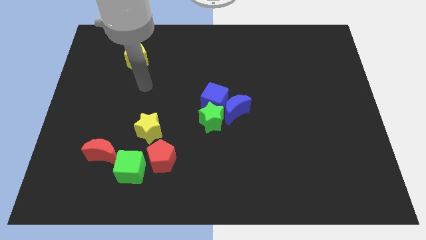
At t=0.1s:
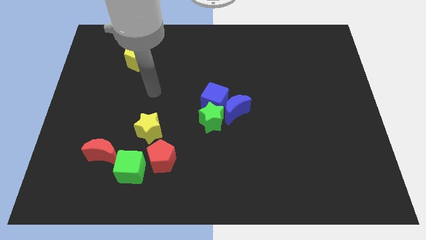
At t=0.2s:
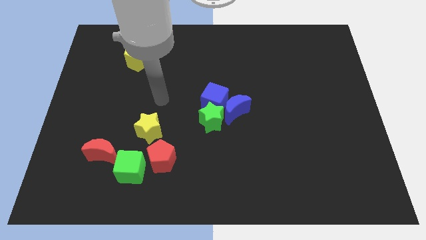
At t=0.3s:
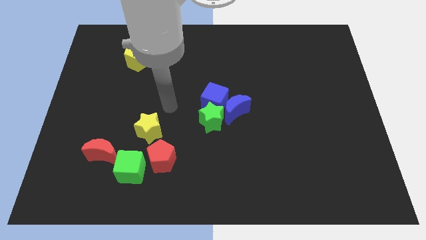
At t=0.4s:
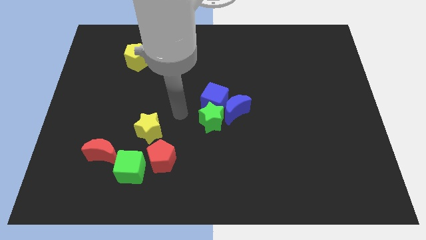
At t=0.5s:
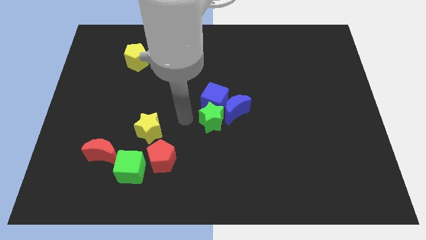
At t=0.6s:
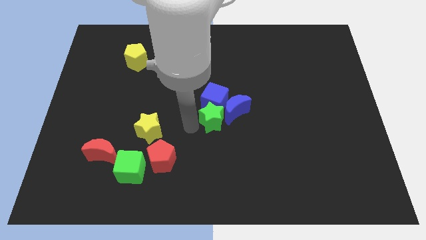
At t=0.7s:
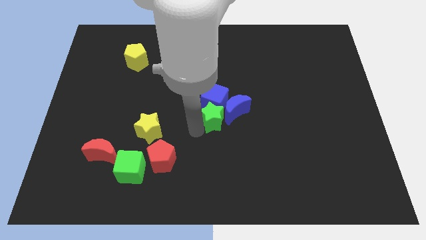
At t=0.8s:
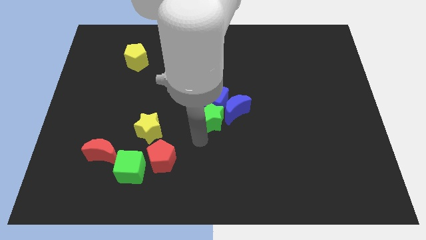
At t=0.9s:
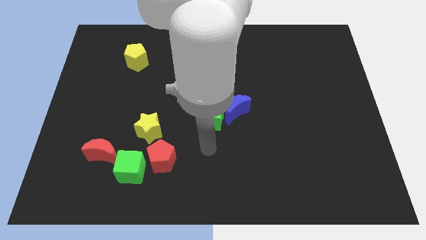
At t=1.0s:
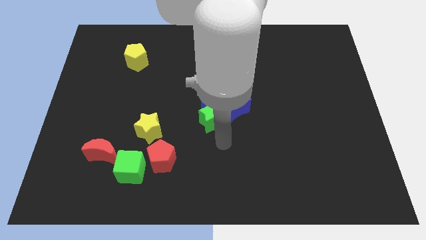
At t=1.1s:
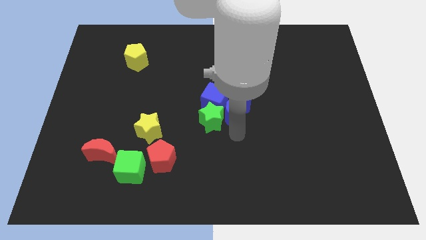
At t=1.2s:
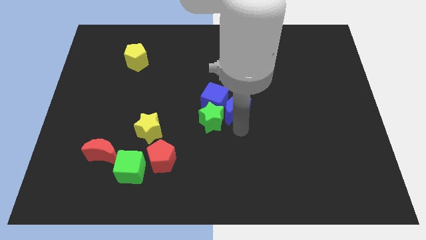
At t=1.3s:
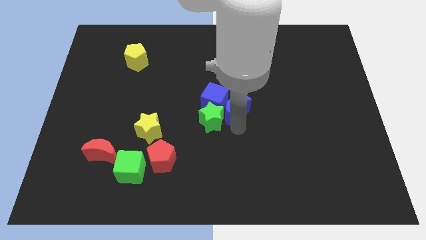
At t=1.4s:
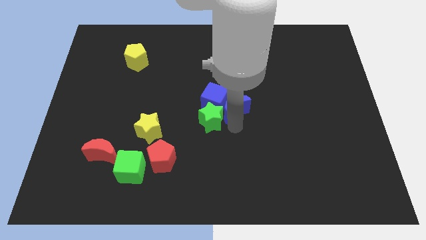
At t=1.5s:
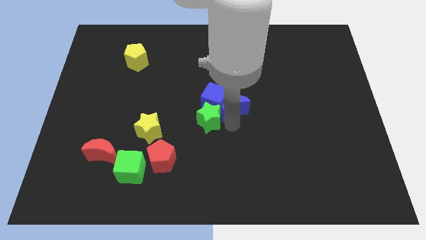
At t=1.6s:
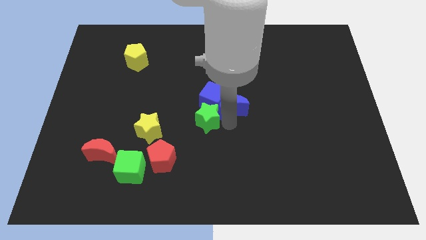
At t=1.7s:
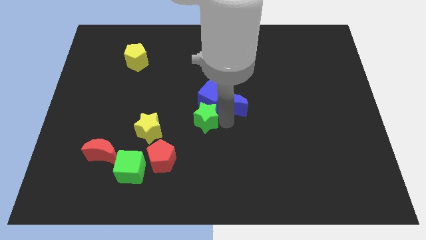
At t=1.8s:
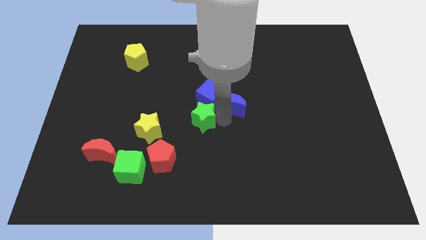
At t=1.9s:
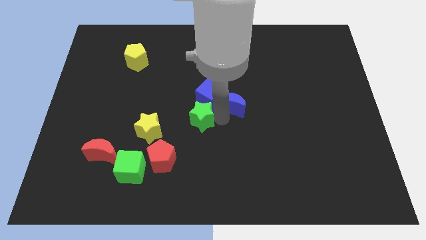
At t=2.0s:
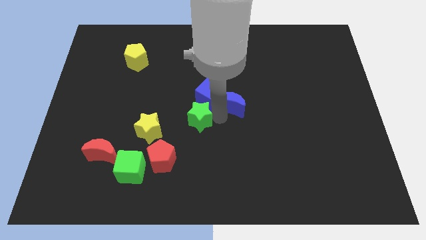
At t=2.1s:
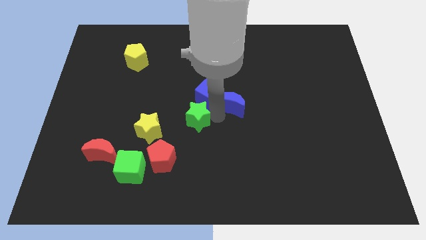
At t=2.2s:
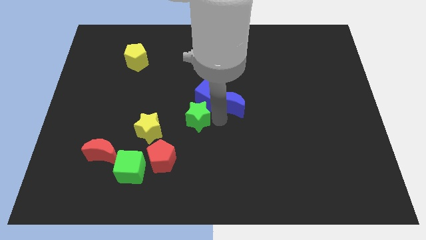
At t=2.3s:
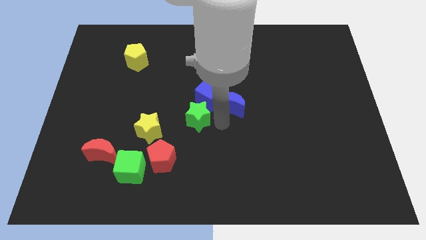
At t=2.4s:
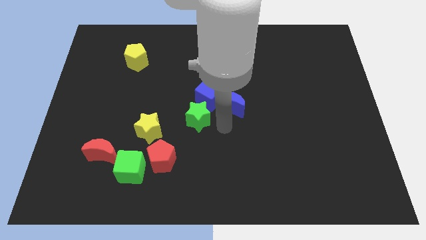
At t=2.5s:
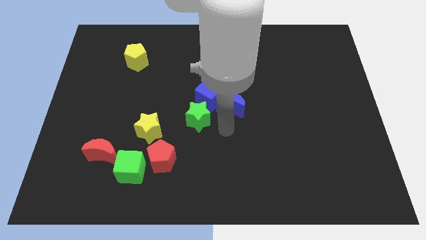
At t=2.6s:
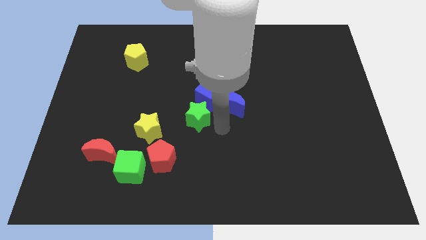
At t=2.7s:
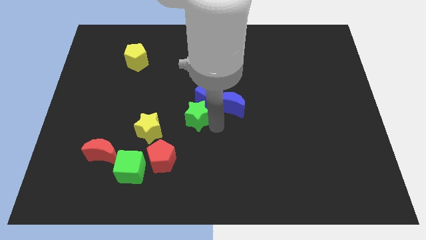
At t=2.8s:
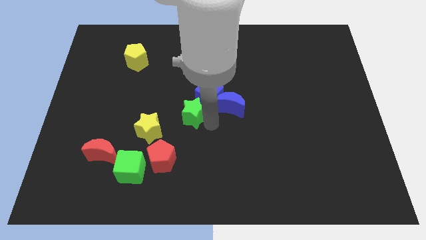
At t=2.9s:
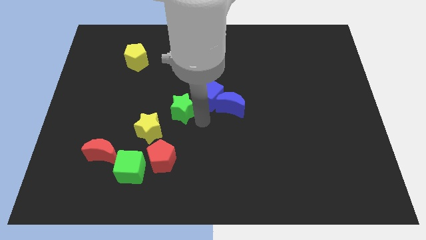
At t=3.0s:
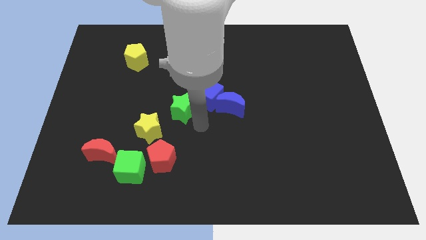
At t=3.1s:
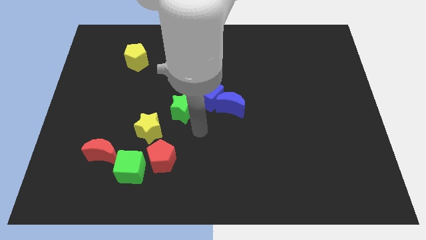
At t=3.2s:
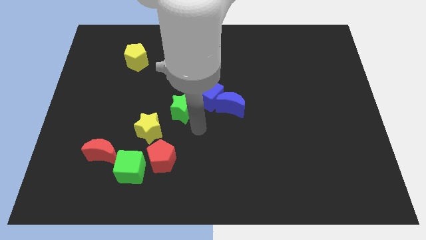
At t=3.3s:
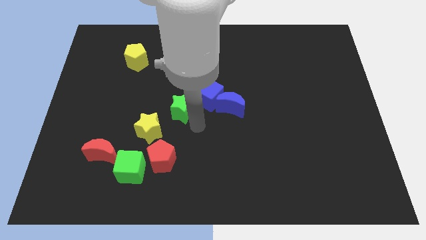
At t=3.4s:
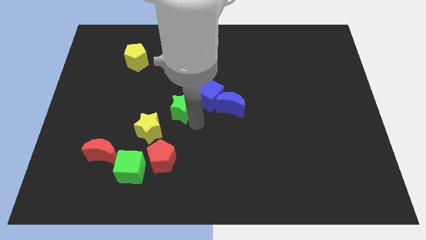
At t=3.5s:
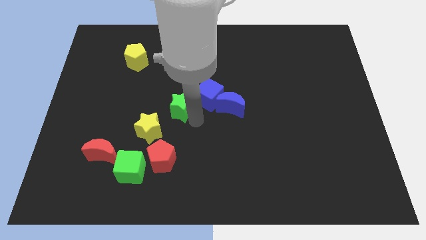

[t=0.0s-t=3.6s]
slide the green star up and to the left slightly

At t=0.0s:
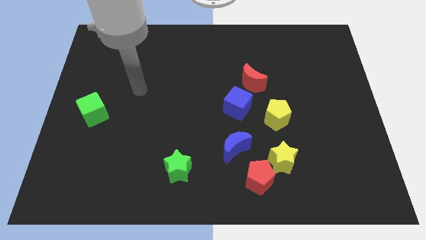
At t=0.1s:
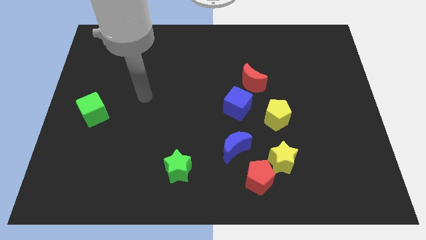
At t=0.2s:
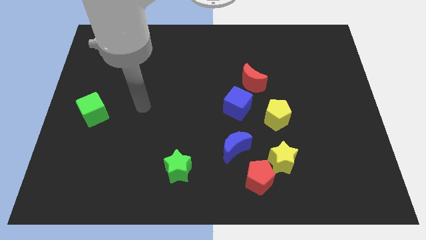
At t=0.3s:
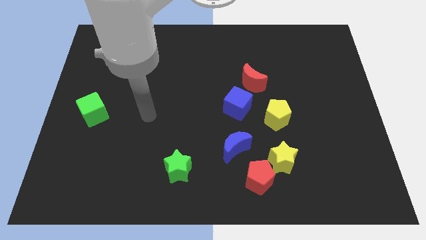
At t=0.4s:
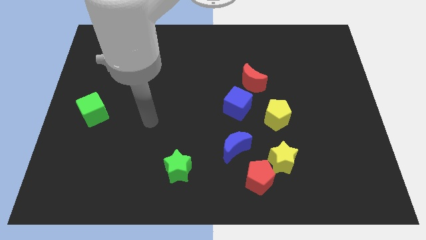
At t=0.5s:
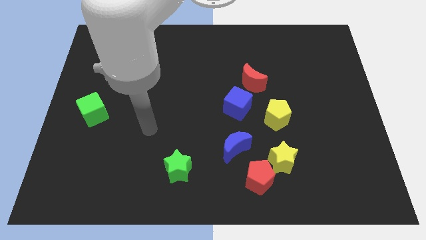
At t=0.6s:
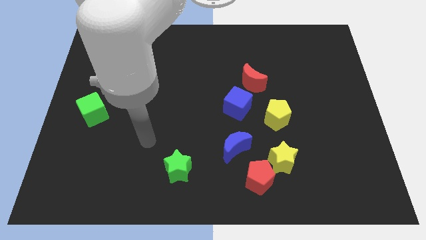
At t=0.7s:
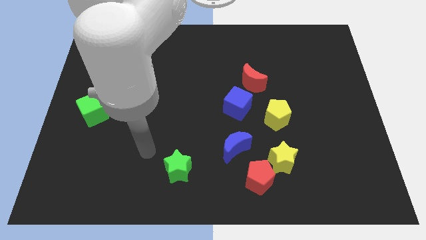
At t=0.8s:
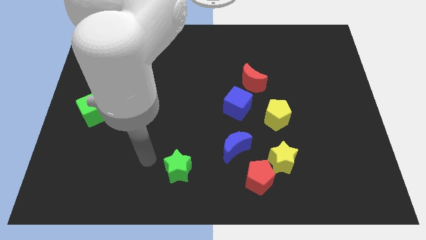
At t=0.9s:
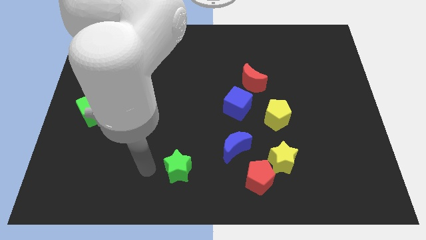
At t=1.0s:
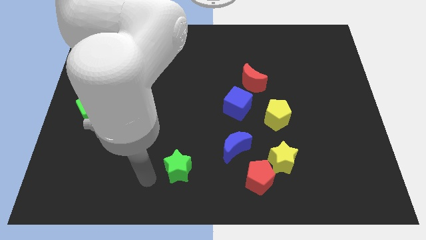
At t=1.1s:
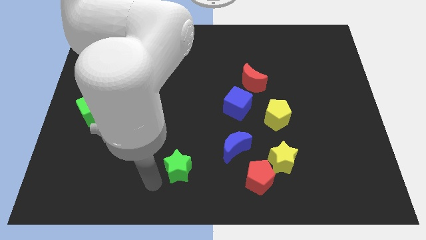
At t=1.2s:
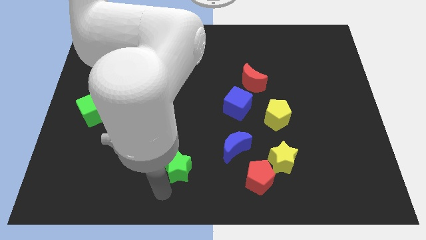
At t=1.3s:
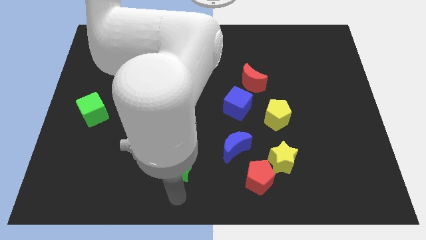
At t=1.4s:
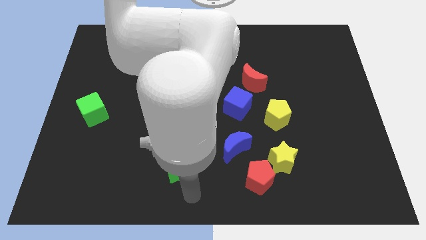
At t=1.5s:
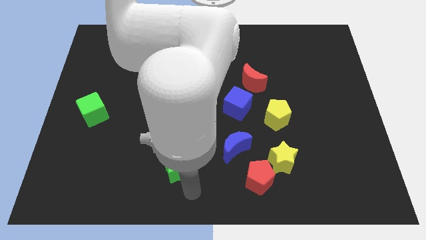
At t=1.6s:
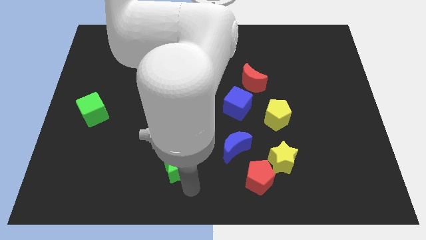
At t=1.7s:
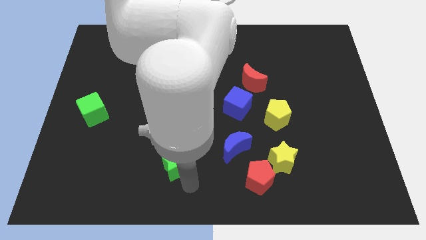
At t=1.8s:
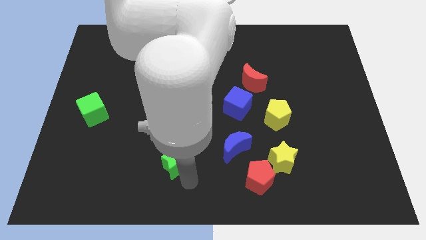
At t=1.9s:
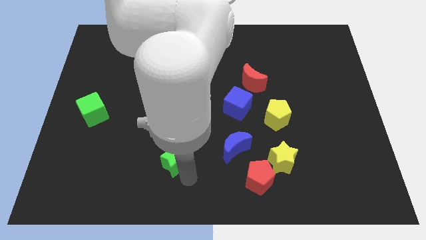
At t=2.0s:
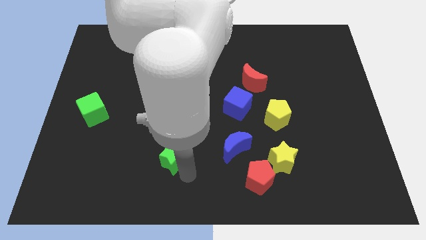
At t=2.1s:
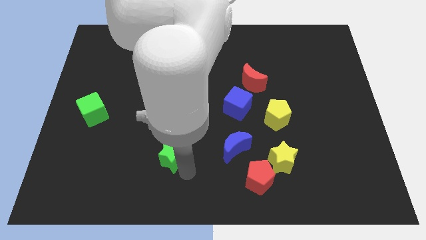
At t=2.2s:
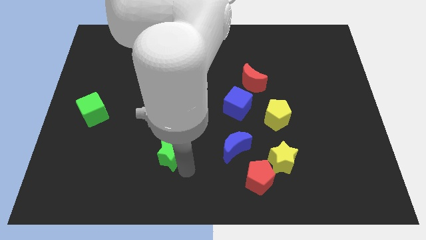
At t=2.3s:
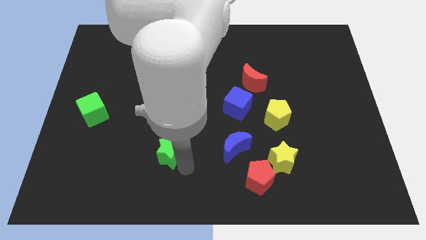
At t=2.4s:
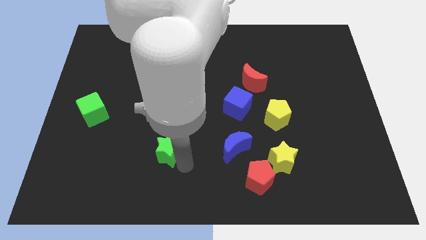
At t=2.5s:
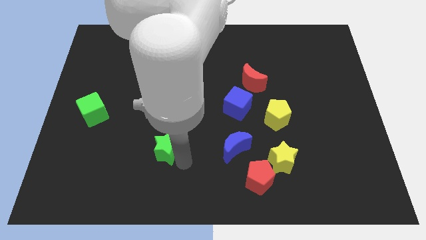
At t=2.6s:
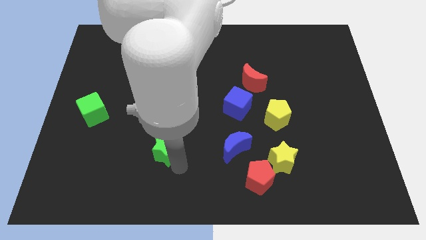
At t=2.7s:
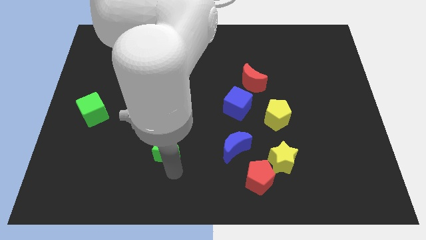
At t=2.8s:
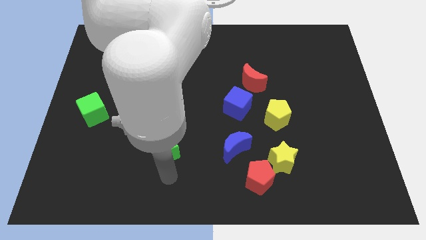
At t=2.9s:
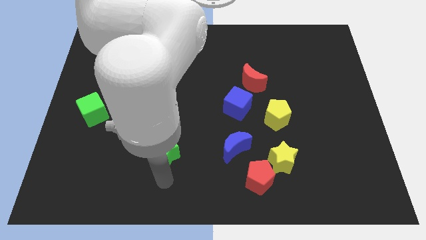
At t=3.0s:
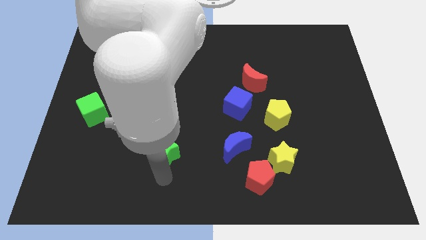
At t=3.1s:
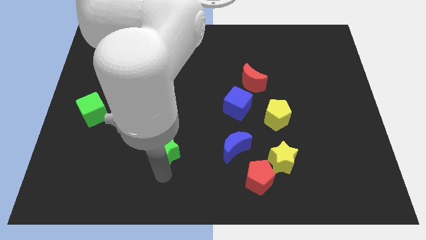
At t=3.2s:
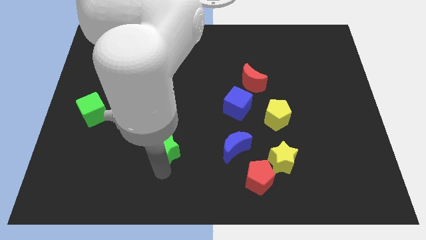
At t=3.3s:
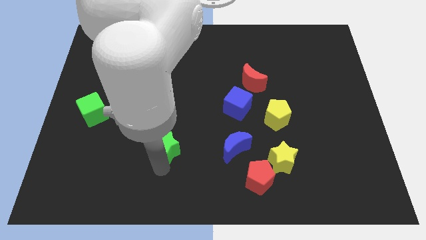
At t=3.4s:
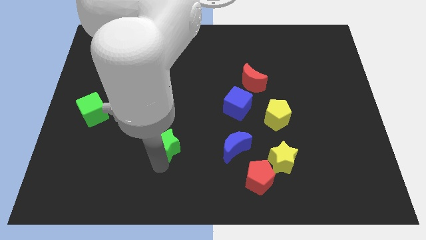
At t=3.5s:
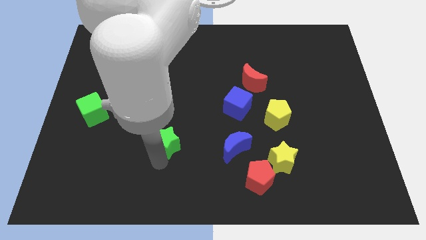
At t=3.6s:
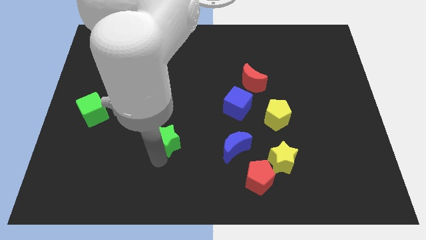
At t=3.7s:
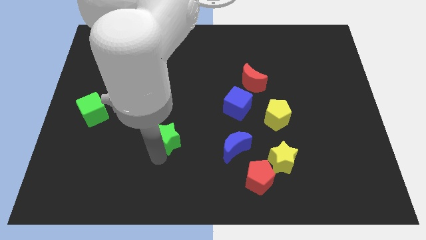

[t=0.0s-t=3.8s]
slightly push the green star up

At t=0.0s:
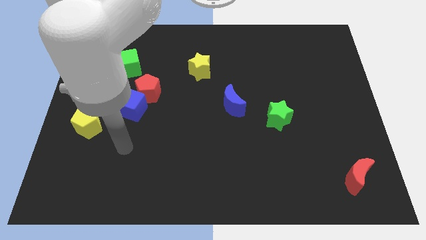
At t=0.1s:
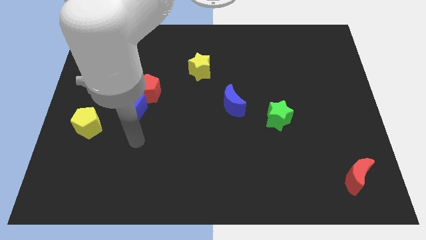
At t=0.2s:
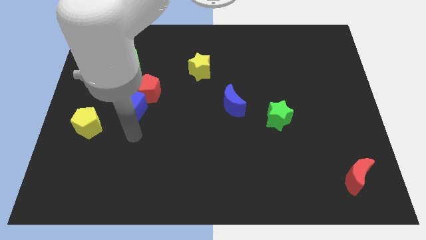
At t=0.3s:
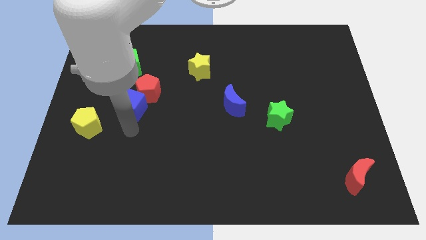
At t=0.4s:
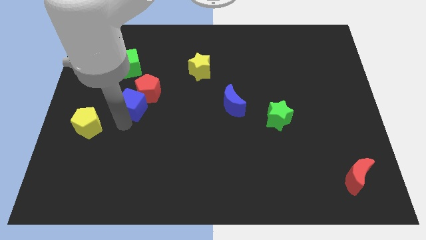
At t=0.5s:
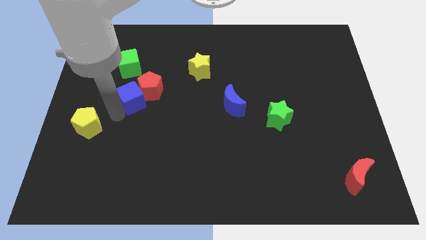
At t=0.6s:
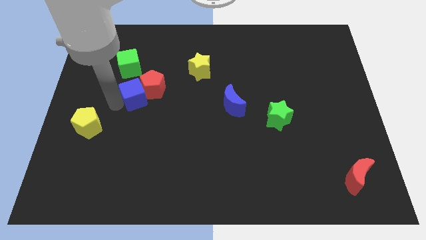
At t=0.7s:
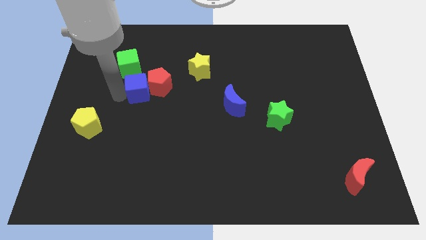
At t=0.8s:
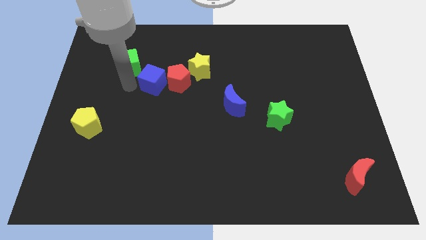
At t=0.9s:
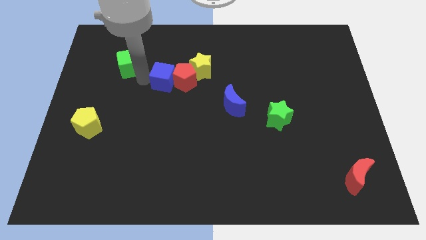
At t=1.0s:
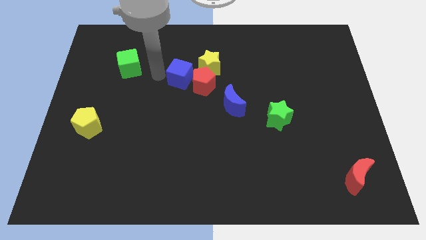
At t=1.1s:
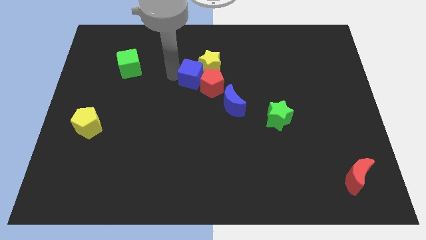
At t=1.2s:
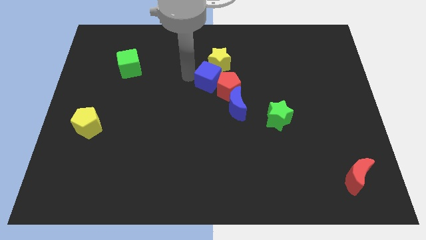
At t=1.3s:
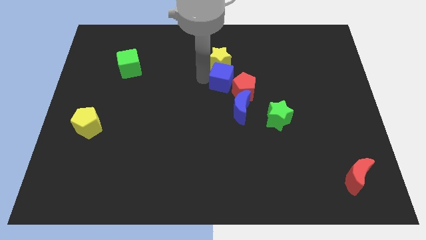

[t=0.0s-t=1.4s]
move the red pentagon right
